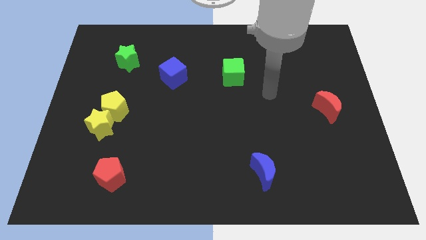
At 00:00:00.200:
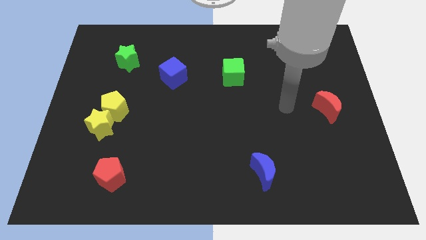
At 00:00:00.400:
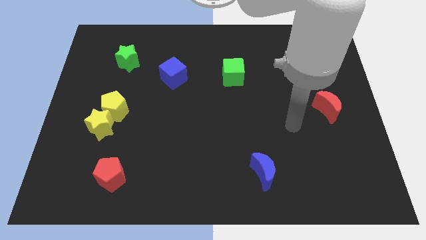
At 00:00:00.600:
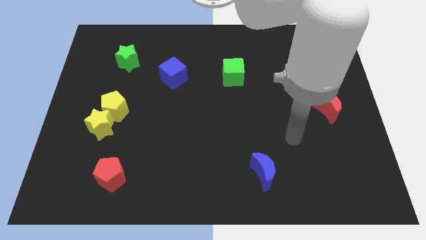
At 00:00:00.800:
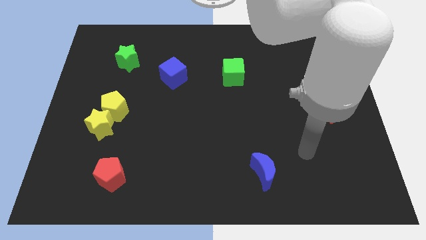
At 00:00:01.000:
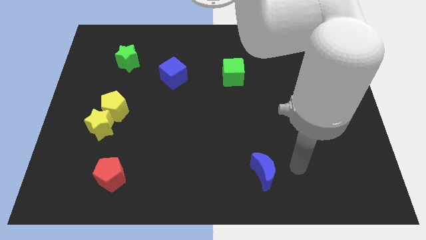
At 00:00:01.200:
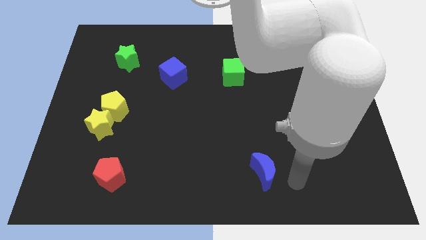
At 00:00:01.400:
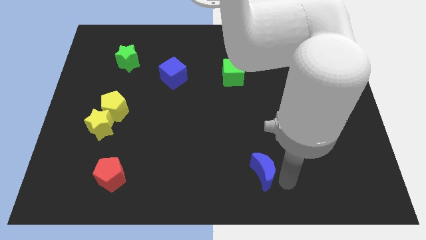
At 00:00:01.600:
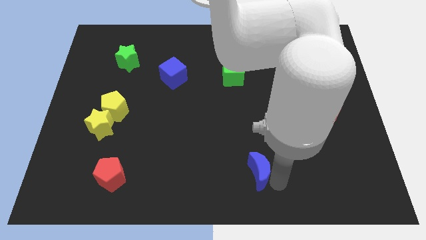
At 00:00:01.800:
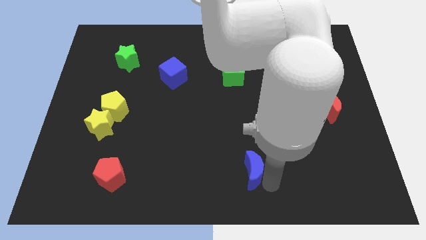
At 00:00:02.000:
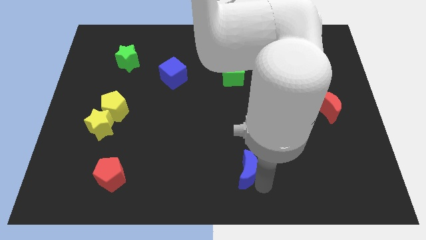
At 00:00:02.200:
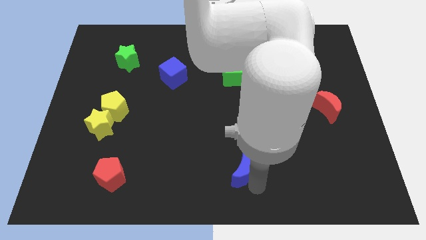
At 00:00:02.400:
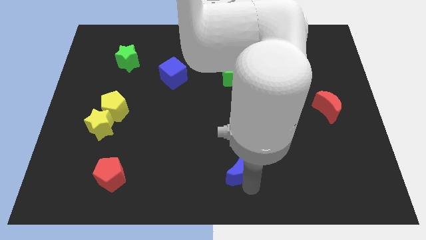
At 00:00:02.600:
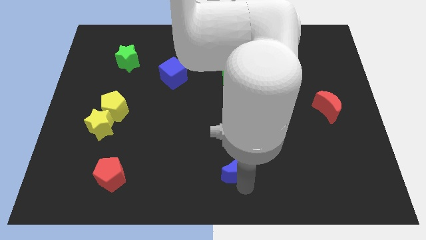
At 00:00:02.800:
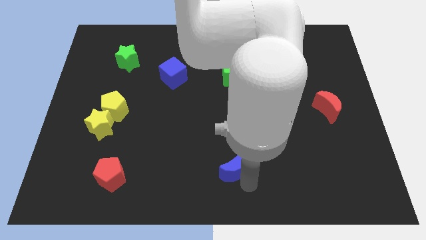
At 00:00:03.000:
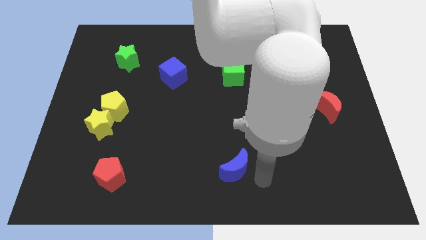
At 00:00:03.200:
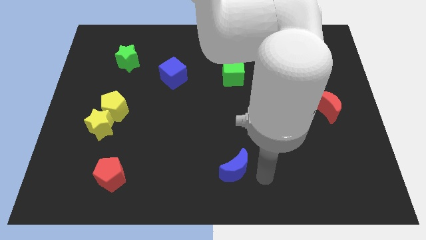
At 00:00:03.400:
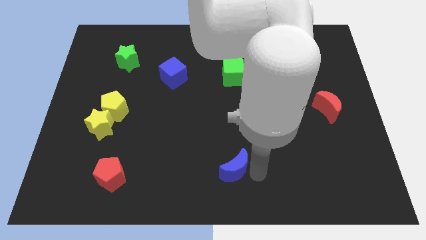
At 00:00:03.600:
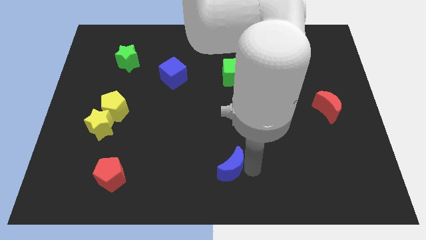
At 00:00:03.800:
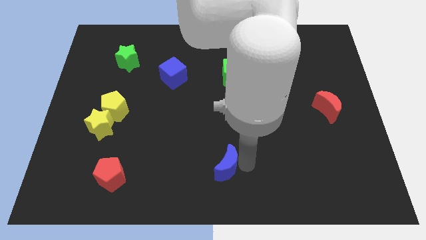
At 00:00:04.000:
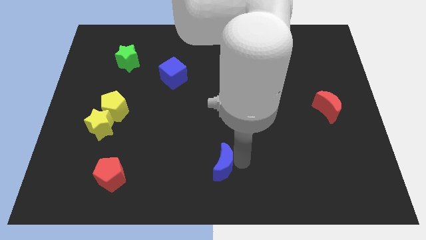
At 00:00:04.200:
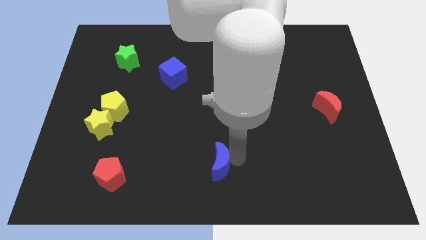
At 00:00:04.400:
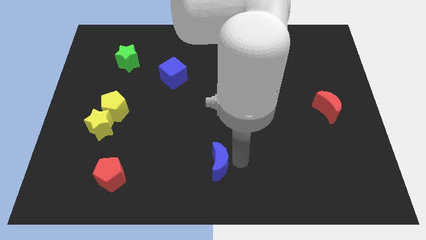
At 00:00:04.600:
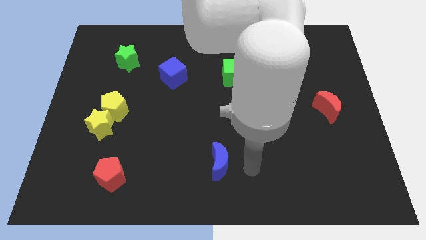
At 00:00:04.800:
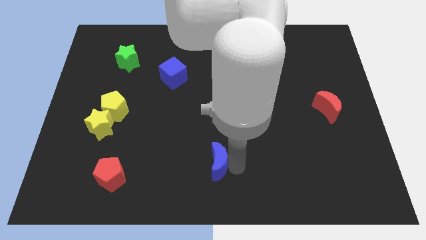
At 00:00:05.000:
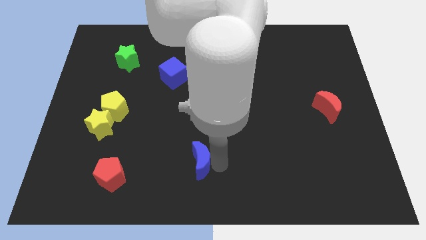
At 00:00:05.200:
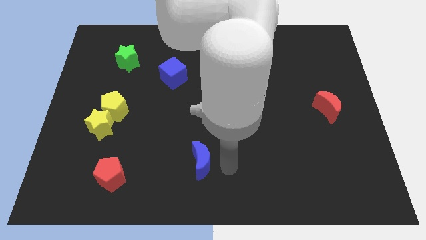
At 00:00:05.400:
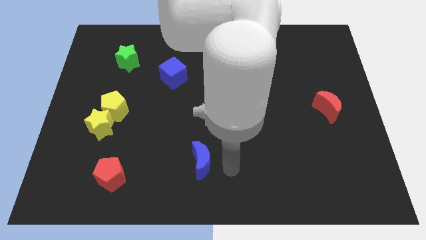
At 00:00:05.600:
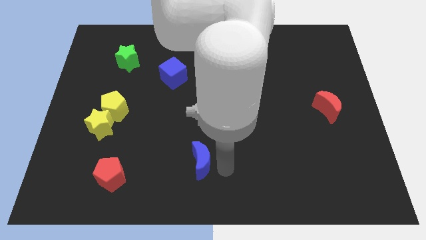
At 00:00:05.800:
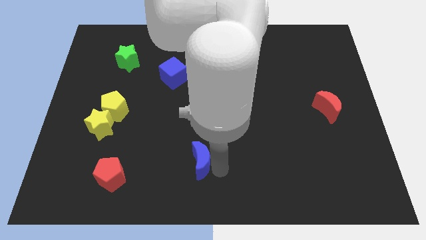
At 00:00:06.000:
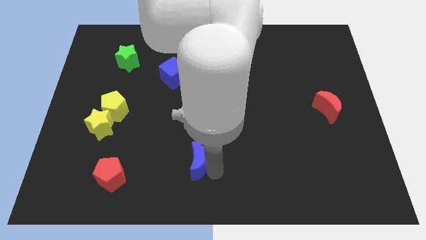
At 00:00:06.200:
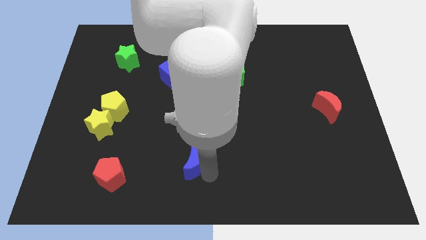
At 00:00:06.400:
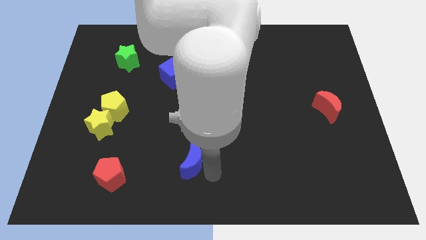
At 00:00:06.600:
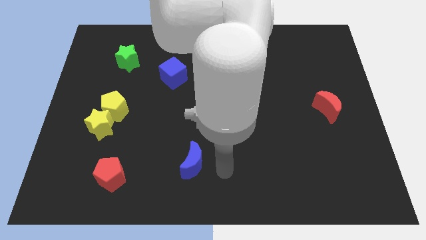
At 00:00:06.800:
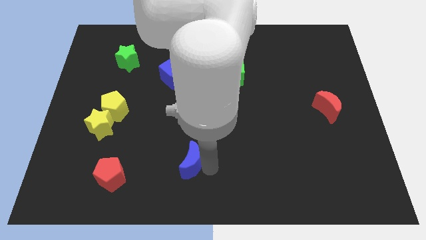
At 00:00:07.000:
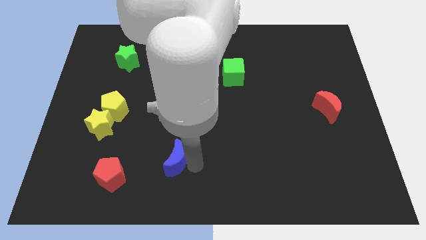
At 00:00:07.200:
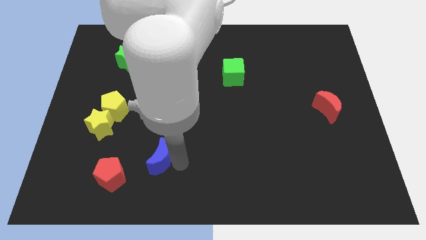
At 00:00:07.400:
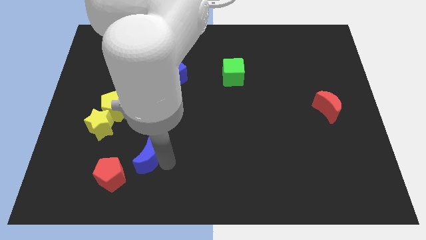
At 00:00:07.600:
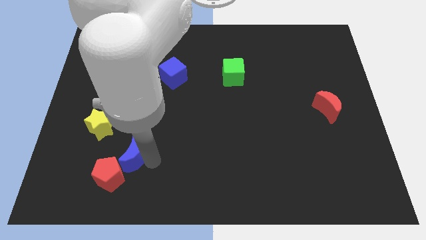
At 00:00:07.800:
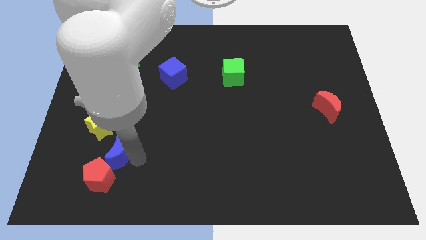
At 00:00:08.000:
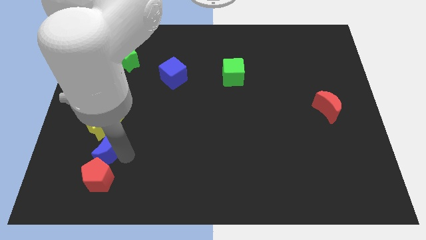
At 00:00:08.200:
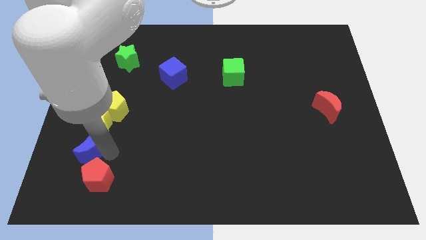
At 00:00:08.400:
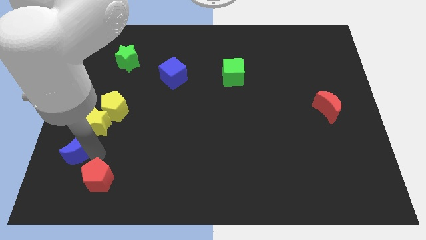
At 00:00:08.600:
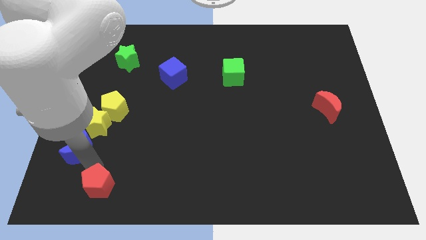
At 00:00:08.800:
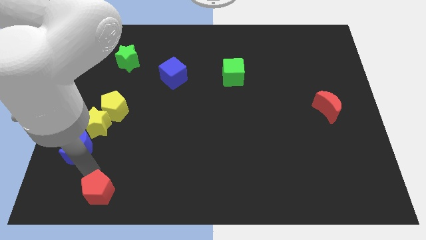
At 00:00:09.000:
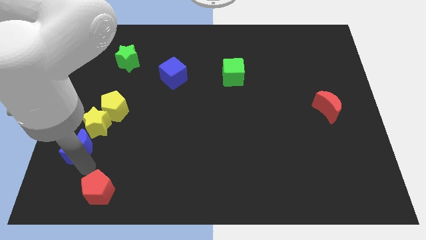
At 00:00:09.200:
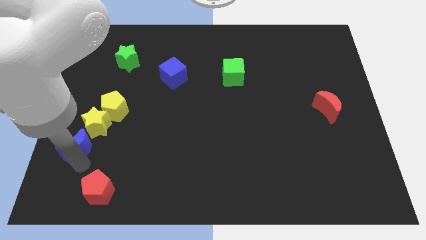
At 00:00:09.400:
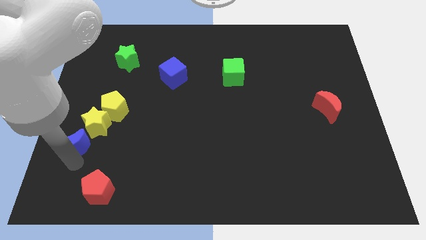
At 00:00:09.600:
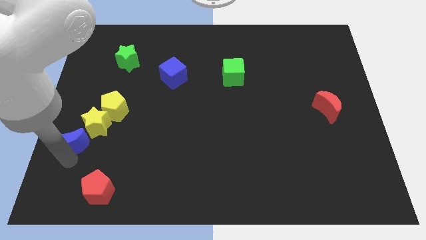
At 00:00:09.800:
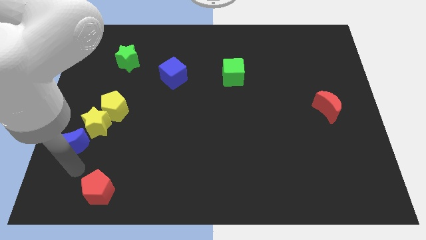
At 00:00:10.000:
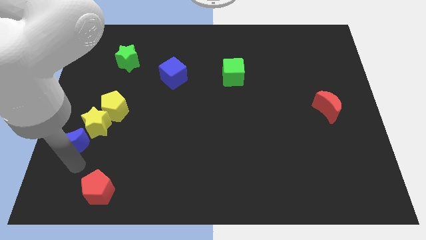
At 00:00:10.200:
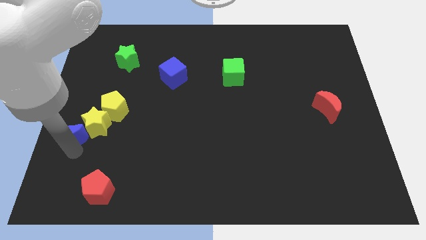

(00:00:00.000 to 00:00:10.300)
put the blue moon to the left side

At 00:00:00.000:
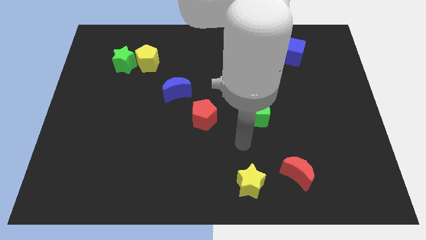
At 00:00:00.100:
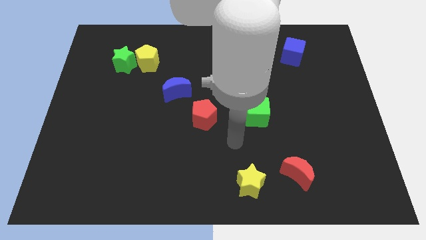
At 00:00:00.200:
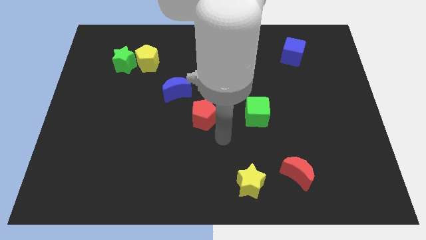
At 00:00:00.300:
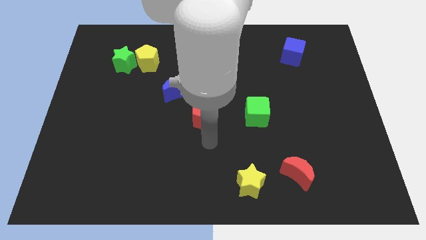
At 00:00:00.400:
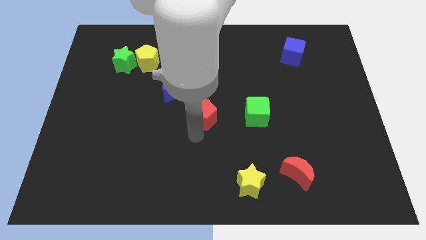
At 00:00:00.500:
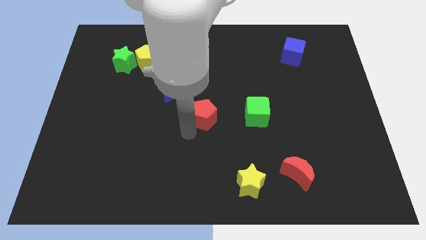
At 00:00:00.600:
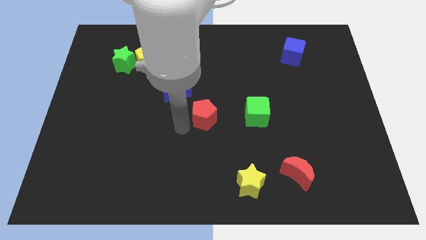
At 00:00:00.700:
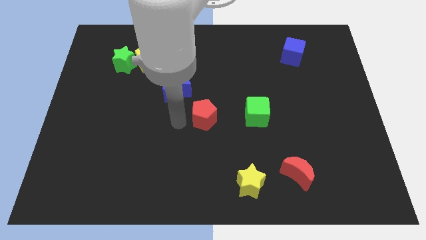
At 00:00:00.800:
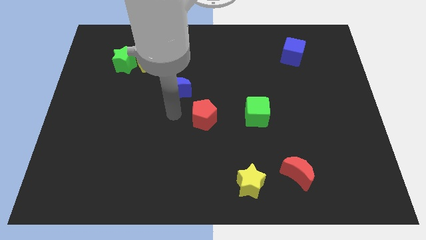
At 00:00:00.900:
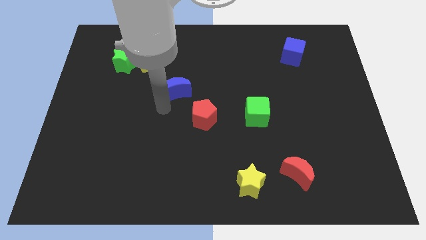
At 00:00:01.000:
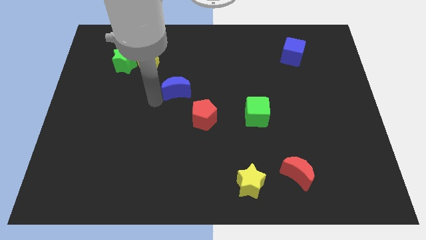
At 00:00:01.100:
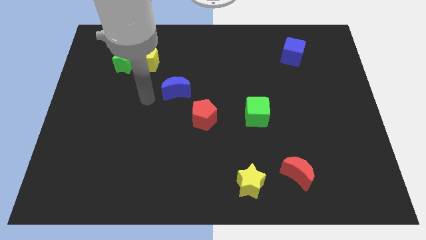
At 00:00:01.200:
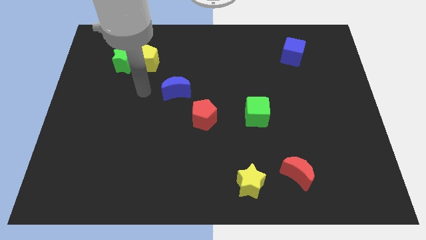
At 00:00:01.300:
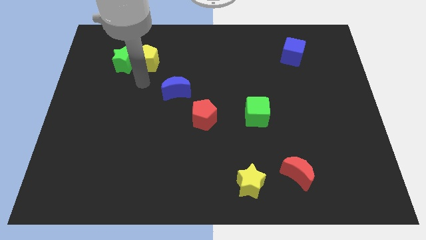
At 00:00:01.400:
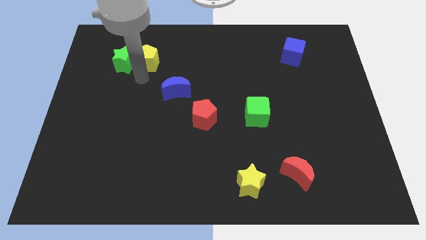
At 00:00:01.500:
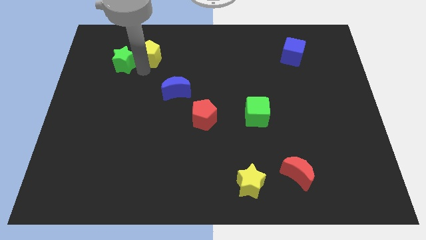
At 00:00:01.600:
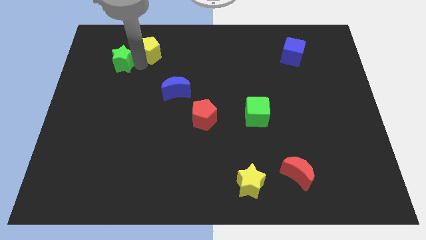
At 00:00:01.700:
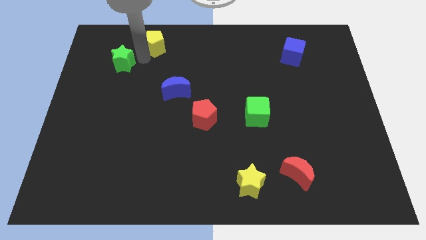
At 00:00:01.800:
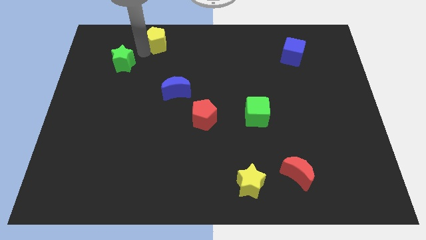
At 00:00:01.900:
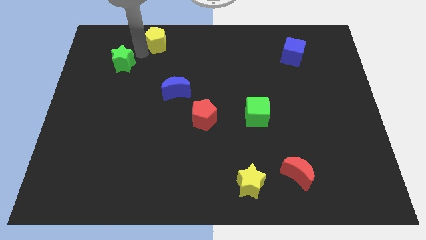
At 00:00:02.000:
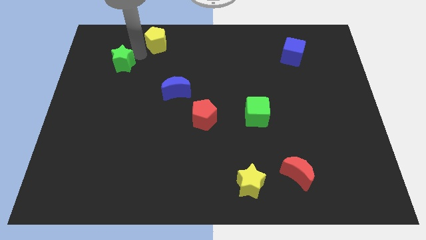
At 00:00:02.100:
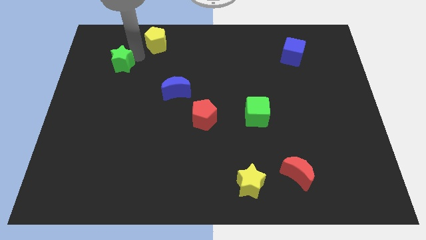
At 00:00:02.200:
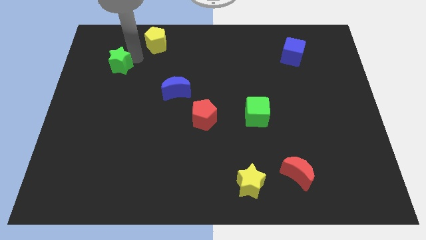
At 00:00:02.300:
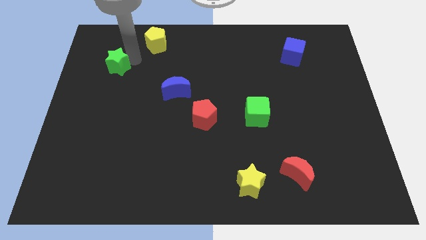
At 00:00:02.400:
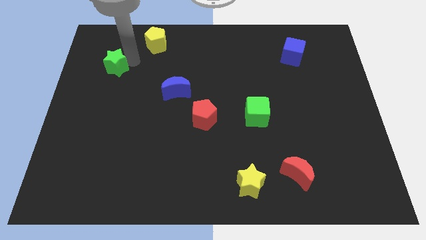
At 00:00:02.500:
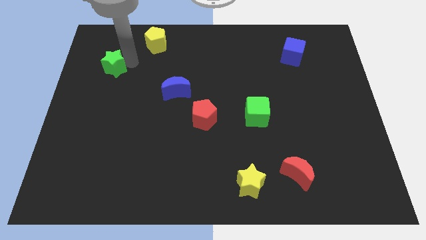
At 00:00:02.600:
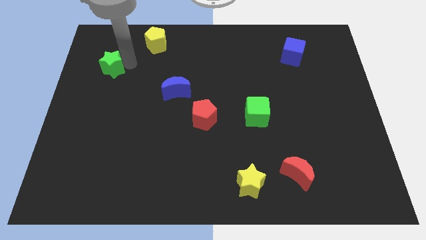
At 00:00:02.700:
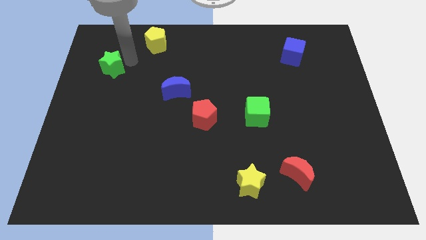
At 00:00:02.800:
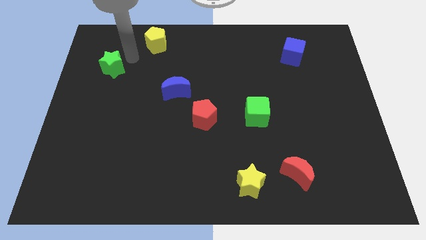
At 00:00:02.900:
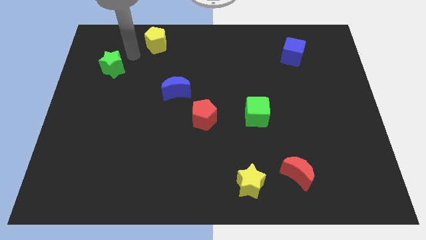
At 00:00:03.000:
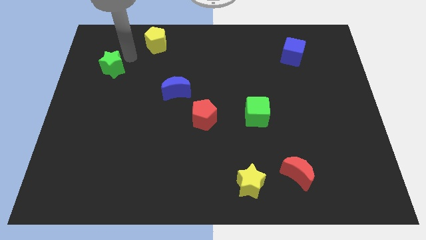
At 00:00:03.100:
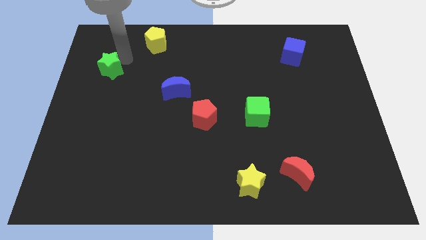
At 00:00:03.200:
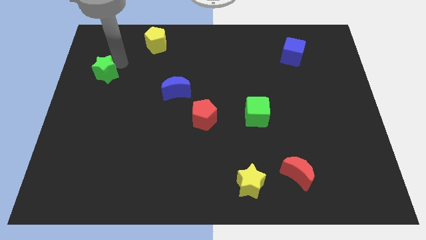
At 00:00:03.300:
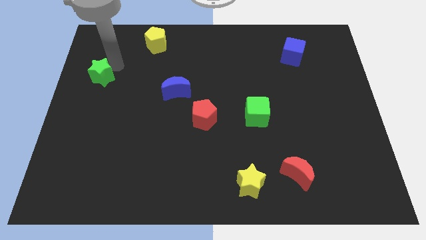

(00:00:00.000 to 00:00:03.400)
push the green star to the left side of the board
